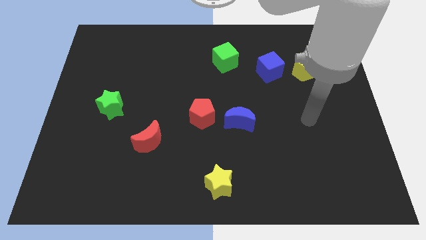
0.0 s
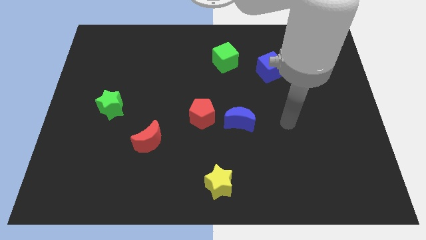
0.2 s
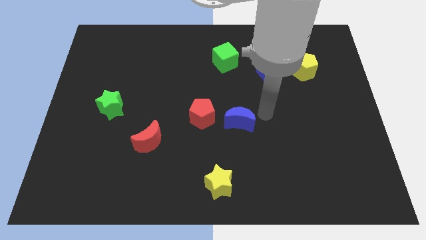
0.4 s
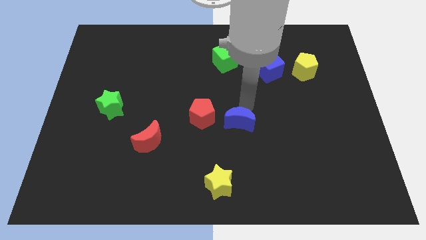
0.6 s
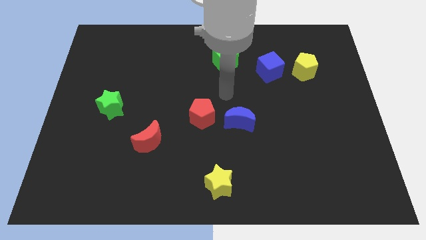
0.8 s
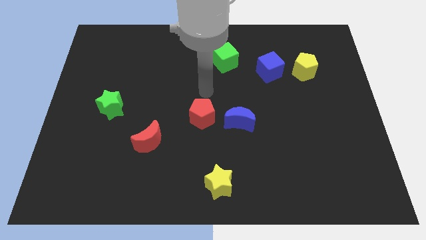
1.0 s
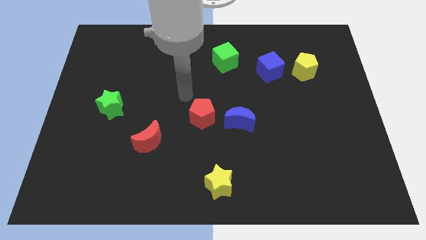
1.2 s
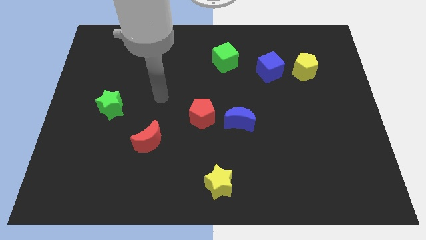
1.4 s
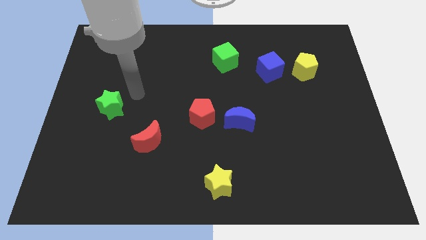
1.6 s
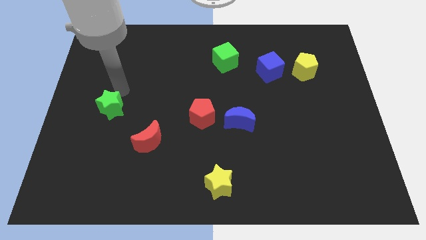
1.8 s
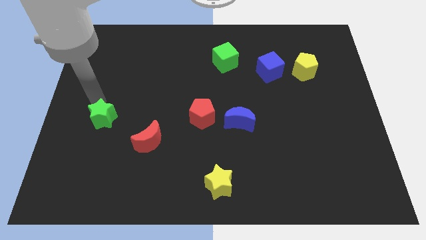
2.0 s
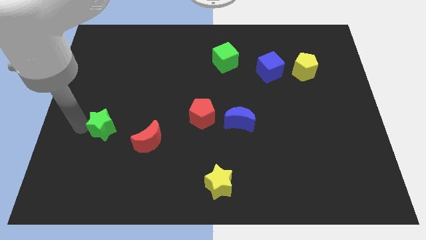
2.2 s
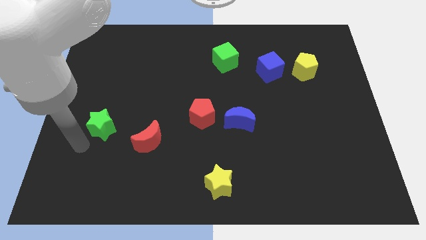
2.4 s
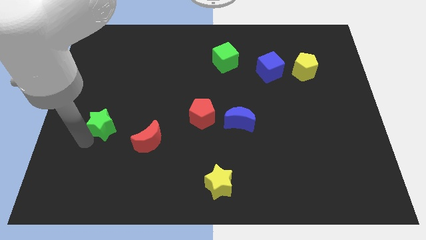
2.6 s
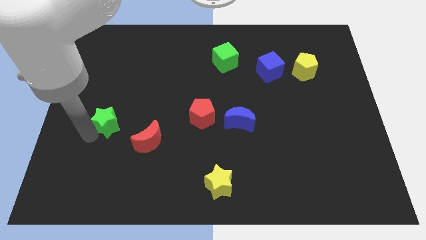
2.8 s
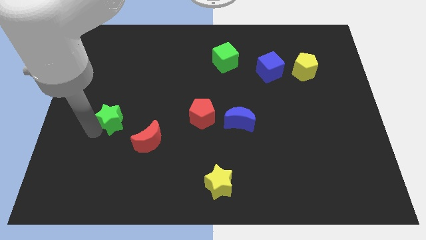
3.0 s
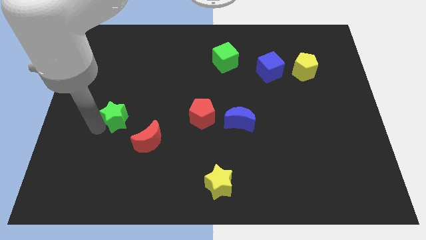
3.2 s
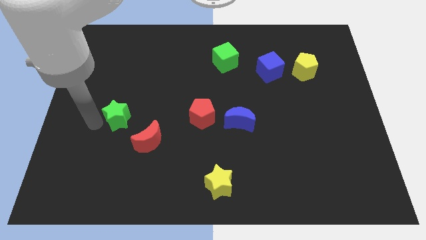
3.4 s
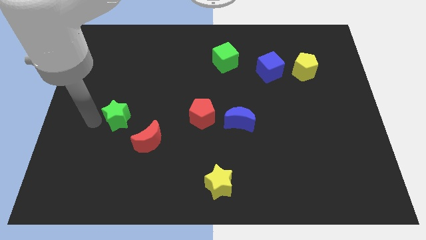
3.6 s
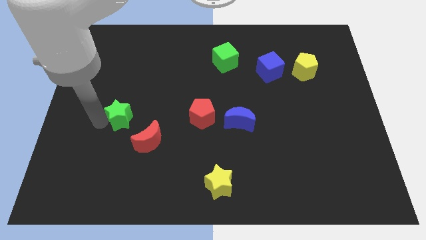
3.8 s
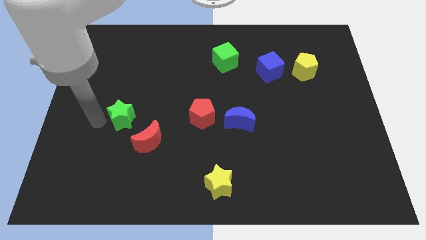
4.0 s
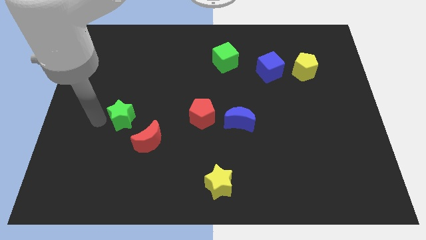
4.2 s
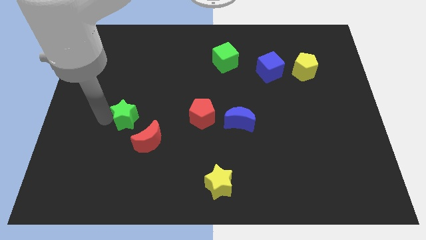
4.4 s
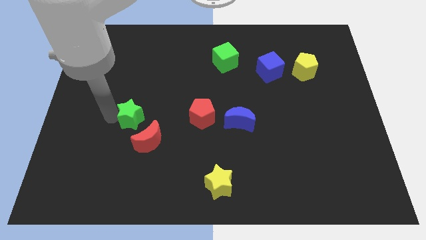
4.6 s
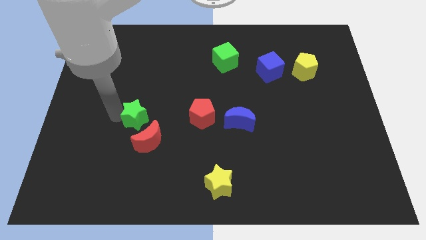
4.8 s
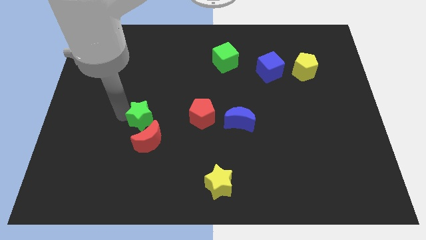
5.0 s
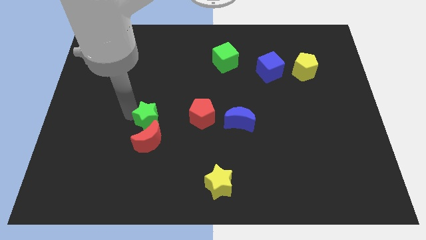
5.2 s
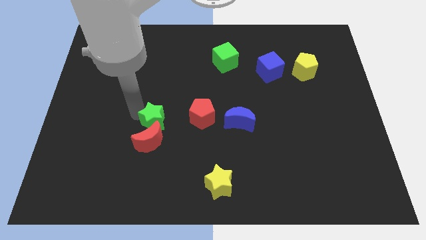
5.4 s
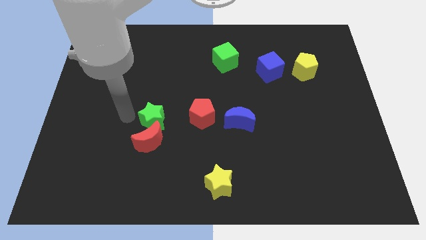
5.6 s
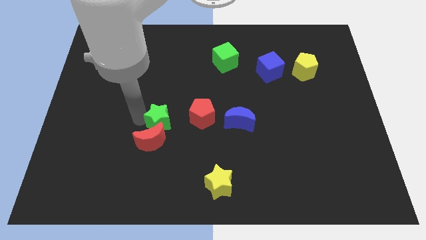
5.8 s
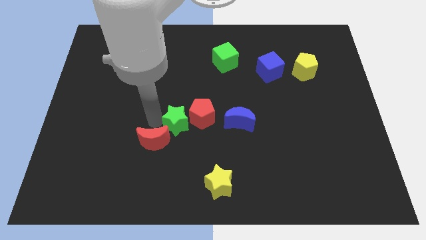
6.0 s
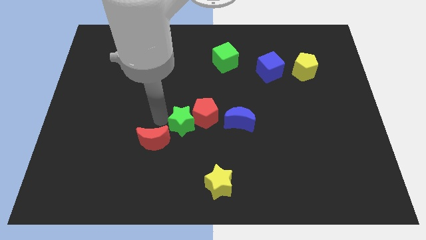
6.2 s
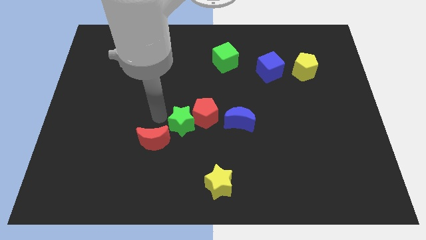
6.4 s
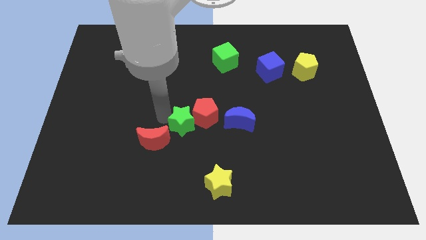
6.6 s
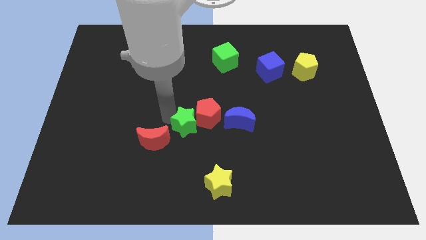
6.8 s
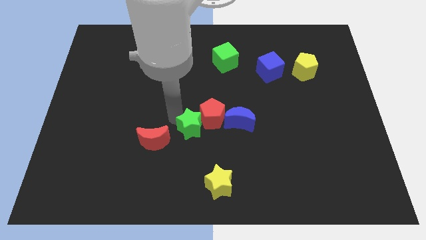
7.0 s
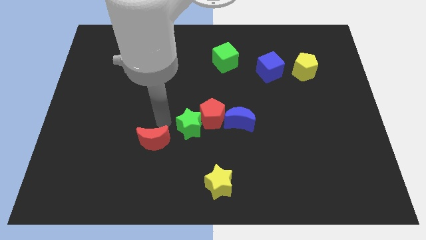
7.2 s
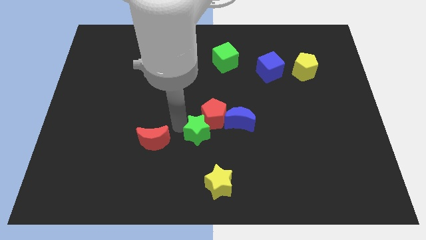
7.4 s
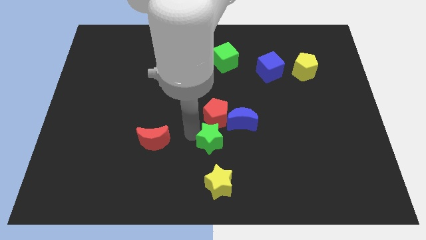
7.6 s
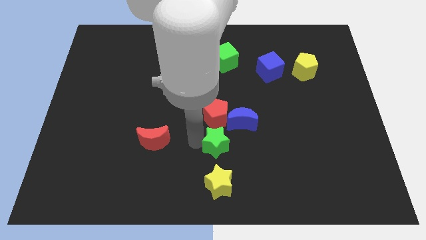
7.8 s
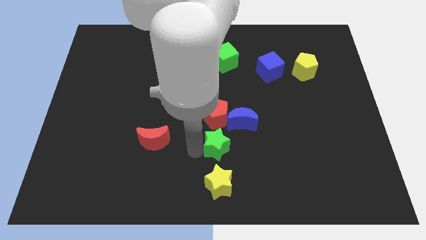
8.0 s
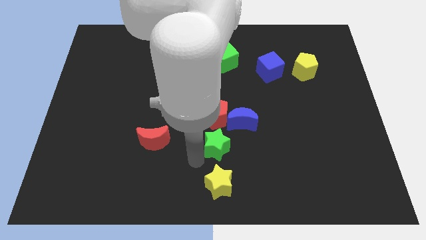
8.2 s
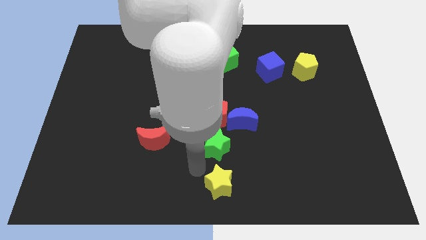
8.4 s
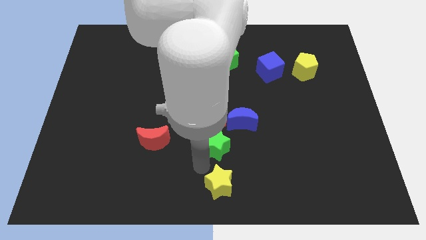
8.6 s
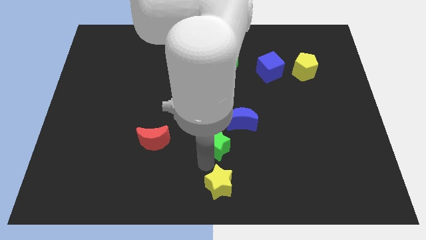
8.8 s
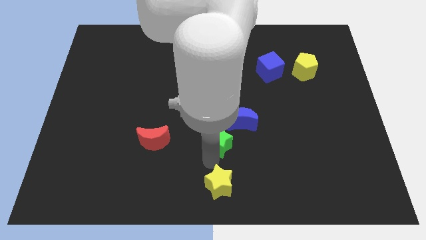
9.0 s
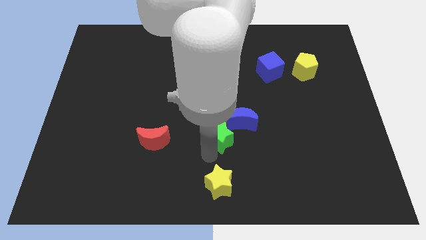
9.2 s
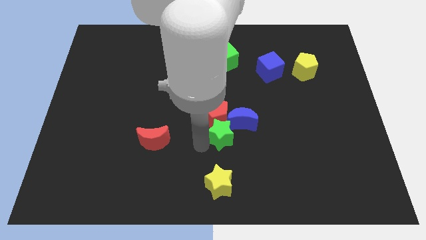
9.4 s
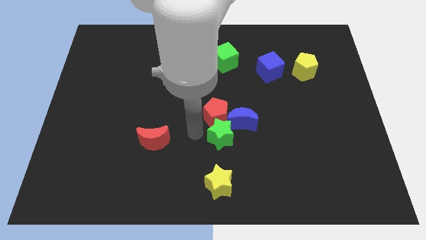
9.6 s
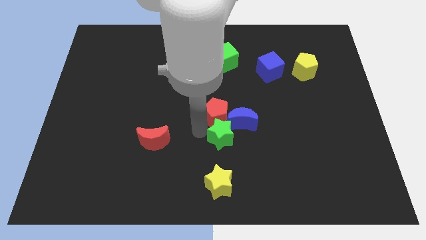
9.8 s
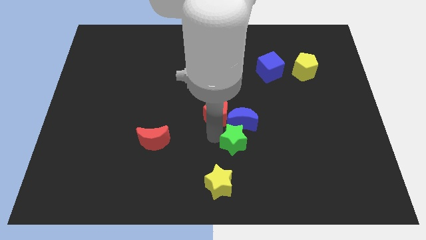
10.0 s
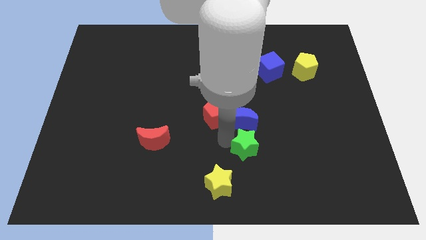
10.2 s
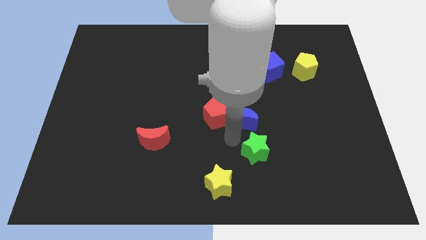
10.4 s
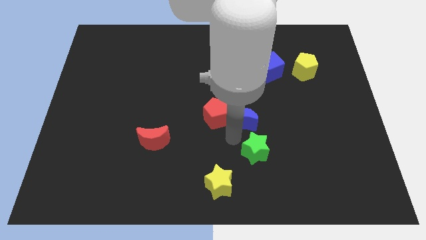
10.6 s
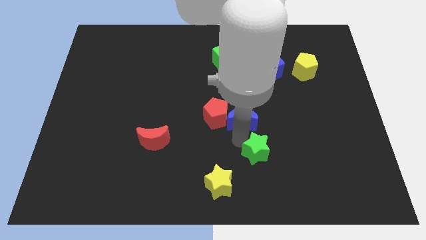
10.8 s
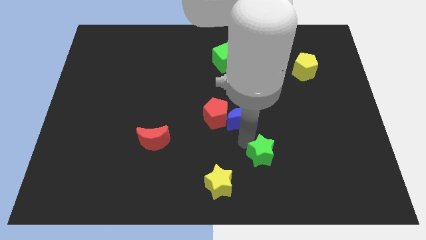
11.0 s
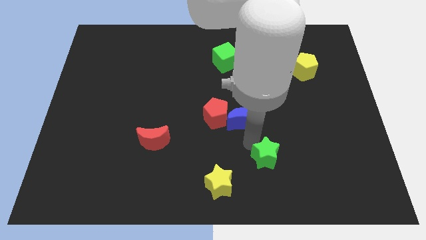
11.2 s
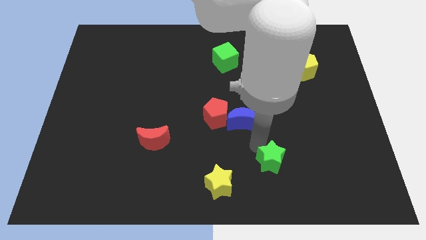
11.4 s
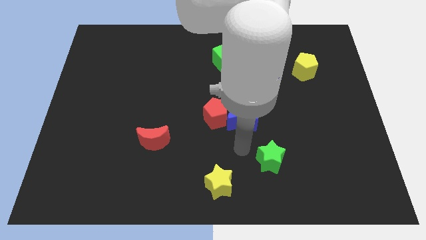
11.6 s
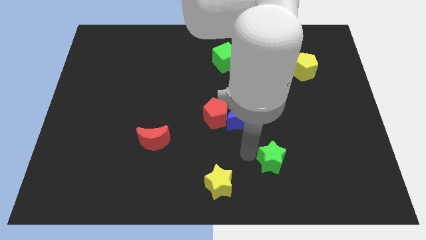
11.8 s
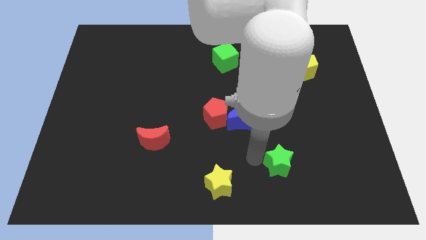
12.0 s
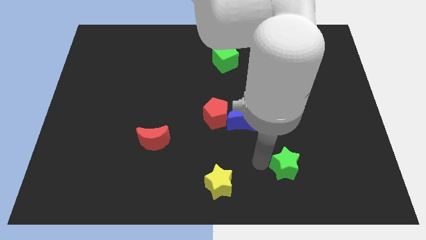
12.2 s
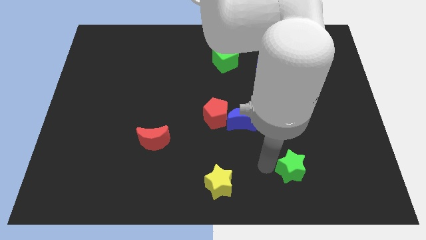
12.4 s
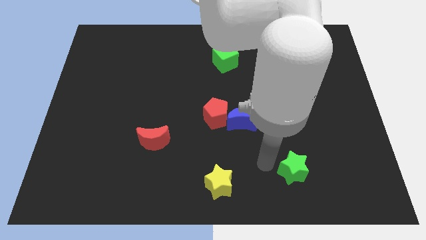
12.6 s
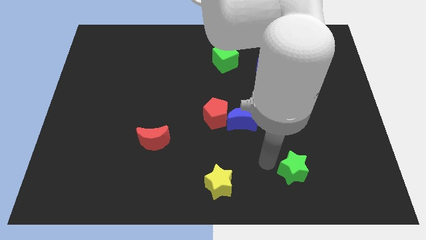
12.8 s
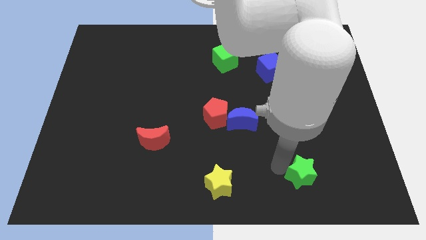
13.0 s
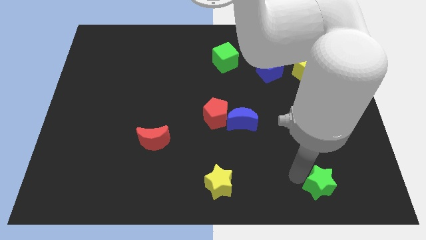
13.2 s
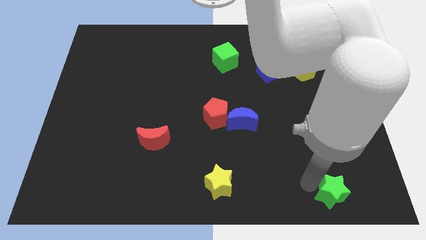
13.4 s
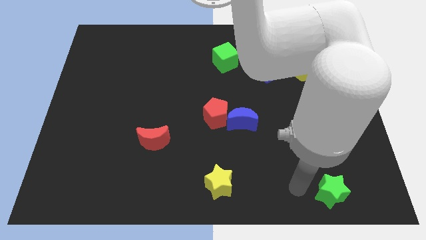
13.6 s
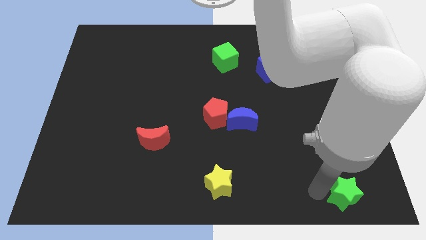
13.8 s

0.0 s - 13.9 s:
push the green star to the bottom right

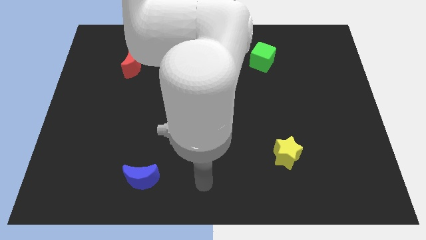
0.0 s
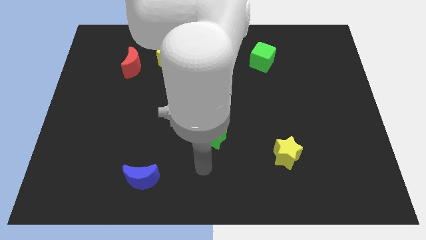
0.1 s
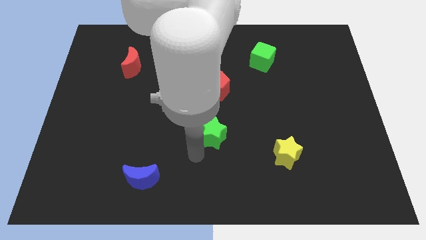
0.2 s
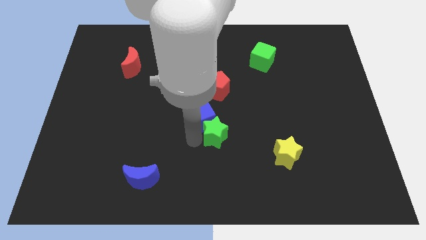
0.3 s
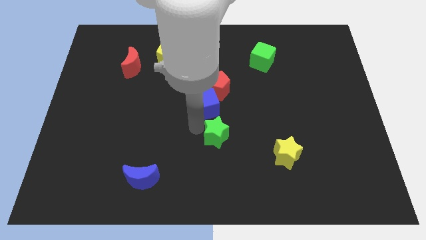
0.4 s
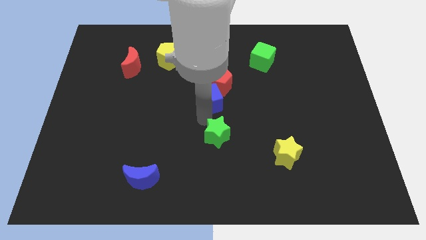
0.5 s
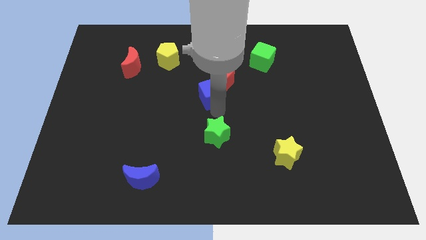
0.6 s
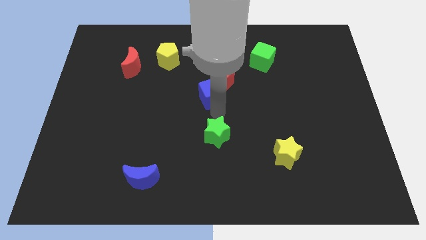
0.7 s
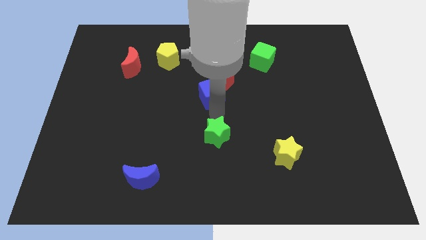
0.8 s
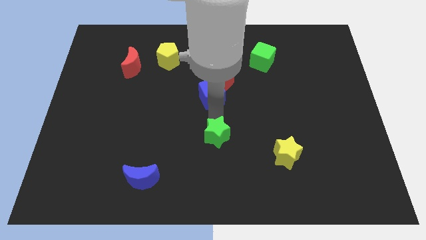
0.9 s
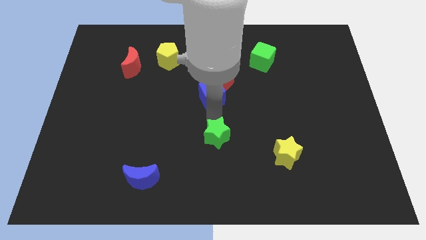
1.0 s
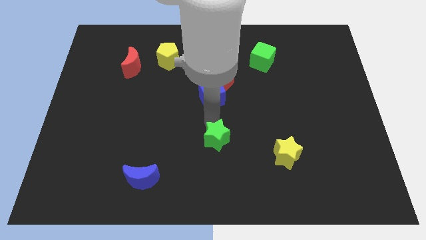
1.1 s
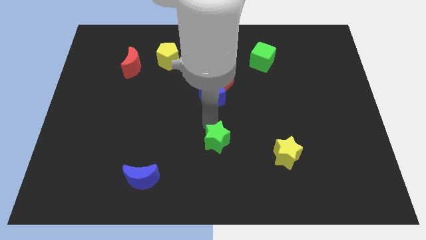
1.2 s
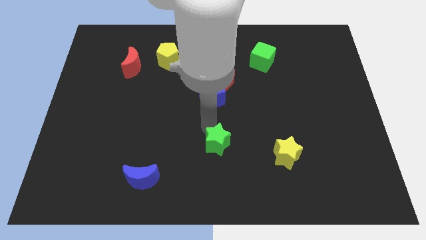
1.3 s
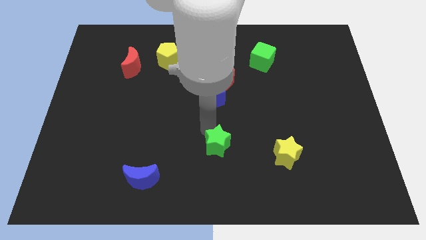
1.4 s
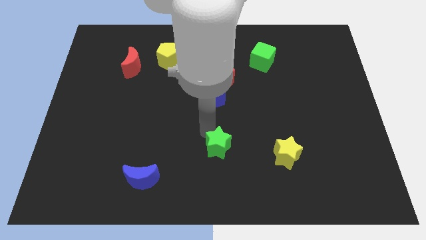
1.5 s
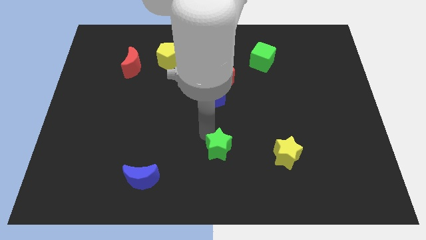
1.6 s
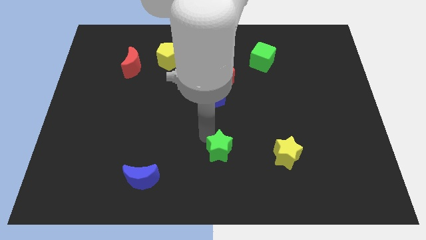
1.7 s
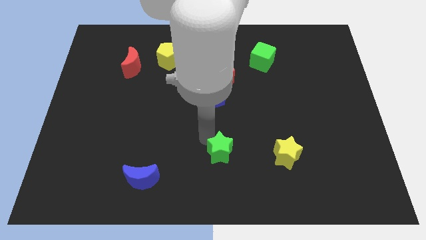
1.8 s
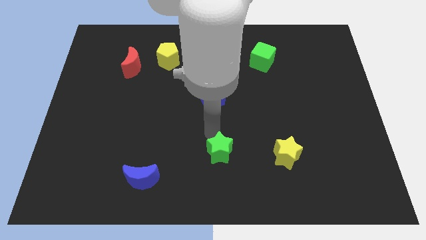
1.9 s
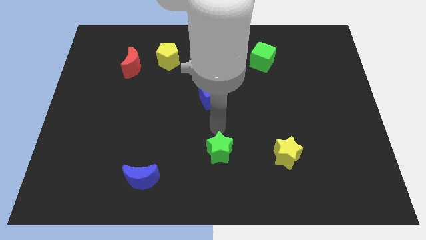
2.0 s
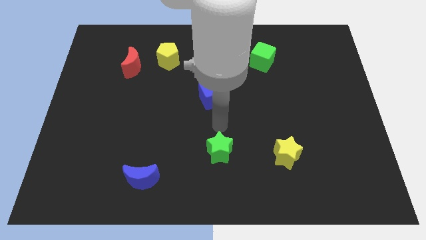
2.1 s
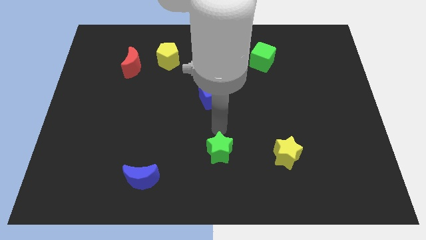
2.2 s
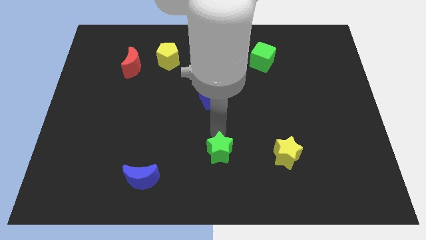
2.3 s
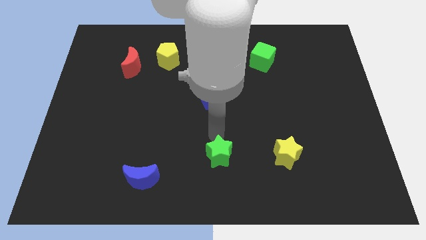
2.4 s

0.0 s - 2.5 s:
move the green star to the bottom side
